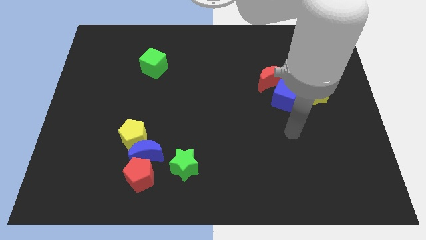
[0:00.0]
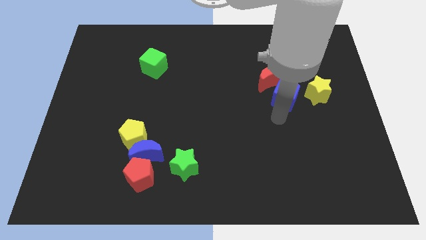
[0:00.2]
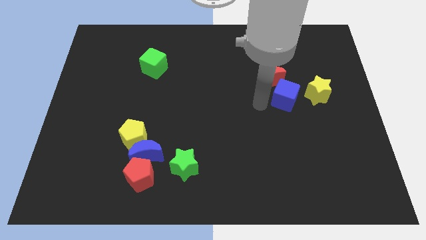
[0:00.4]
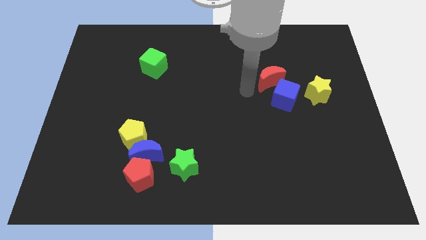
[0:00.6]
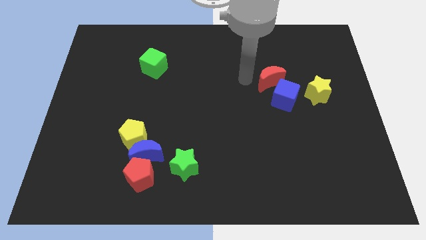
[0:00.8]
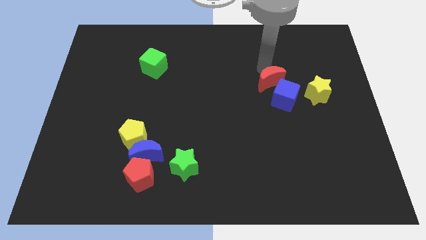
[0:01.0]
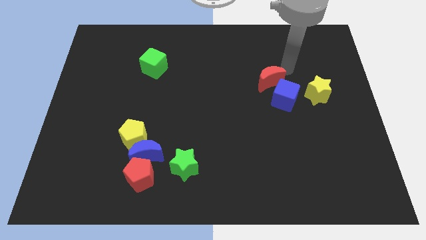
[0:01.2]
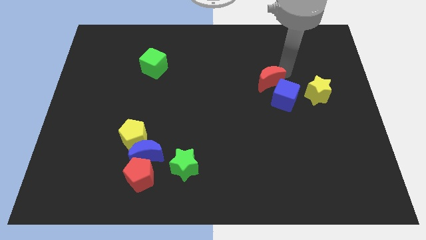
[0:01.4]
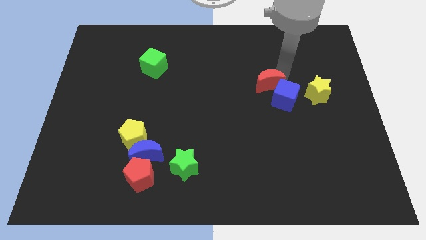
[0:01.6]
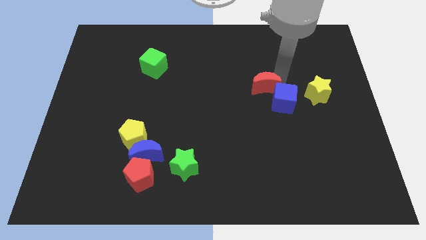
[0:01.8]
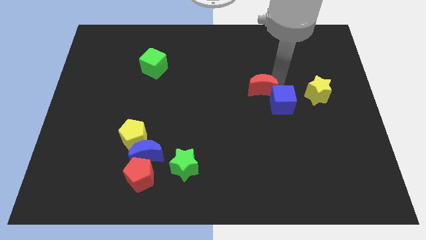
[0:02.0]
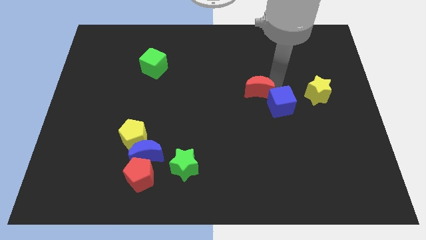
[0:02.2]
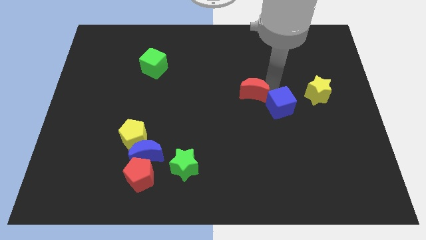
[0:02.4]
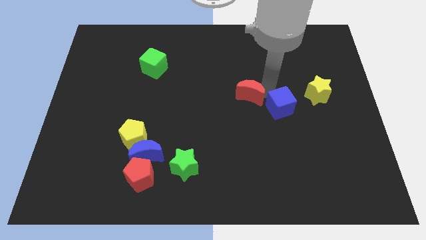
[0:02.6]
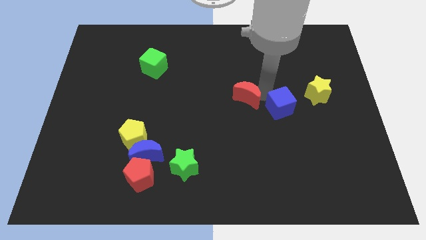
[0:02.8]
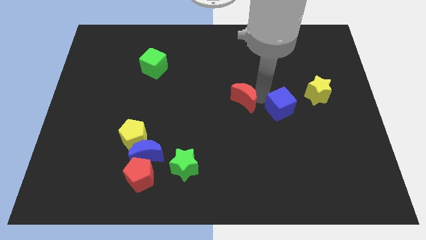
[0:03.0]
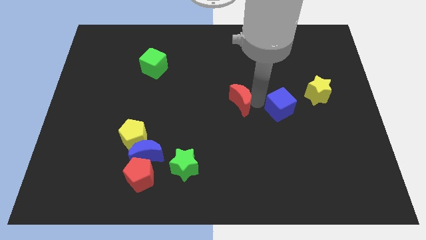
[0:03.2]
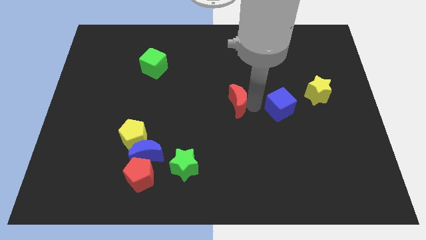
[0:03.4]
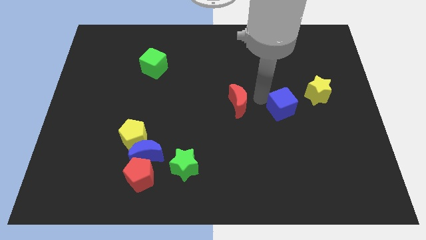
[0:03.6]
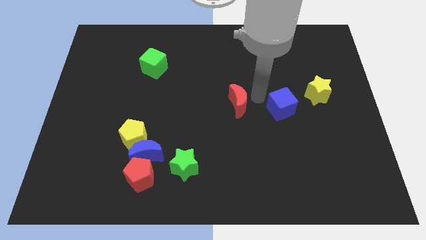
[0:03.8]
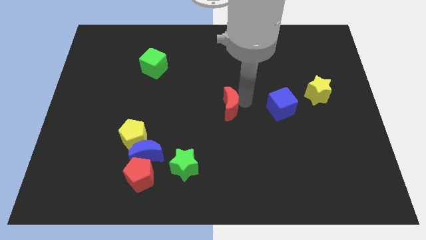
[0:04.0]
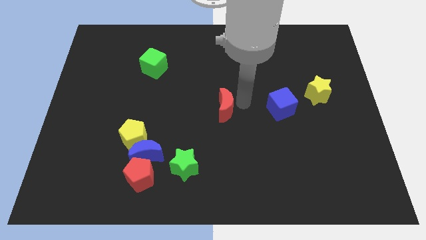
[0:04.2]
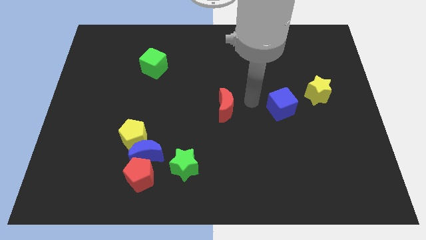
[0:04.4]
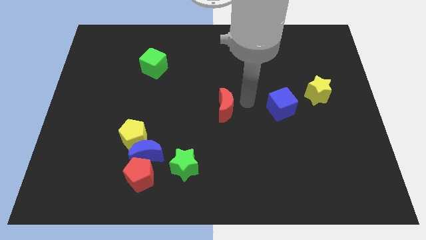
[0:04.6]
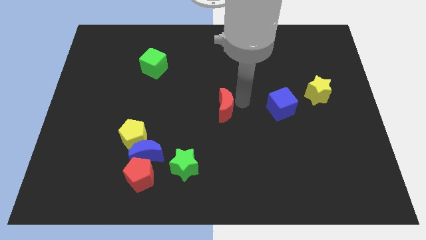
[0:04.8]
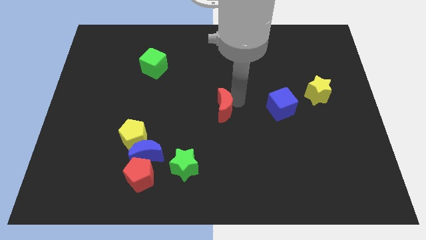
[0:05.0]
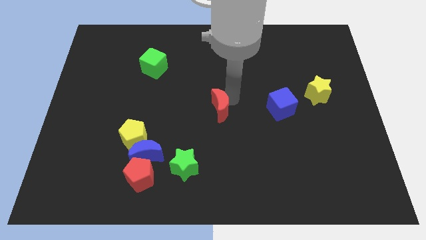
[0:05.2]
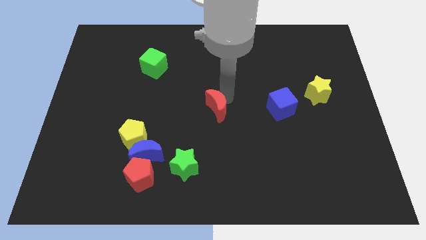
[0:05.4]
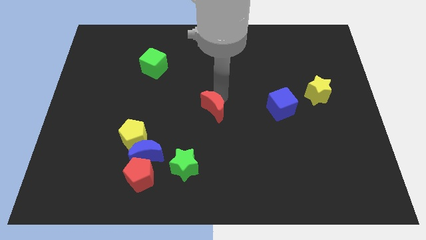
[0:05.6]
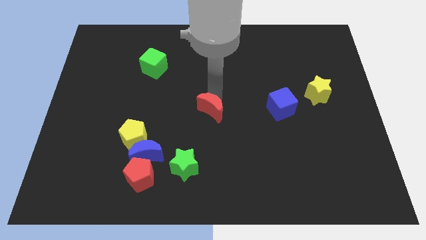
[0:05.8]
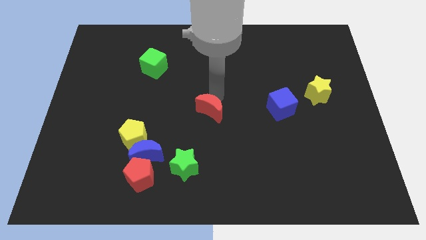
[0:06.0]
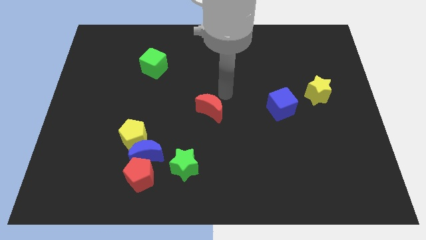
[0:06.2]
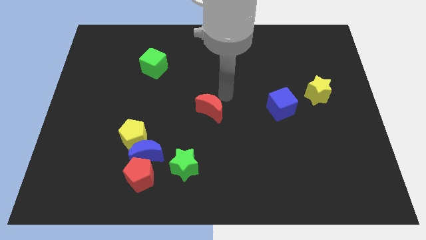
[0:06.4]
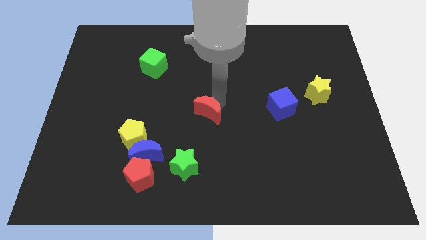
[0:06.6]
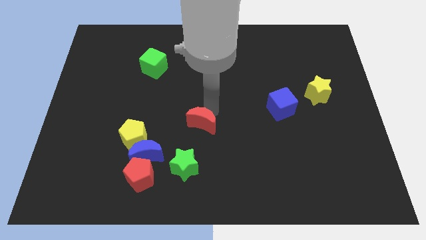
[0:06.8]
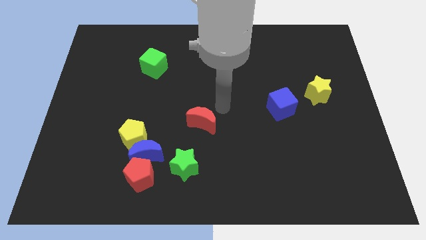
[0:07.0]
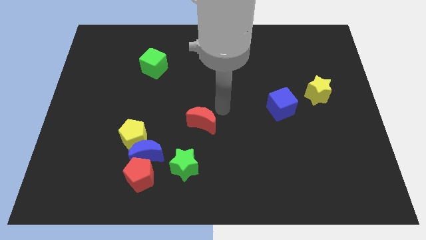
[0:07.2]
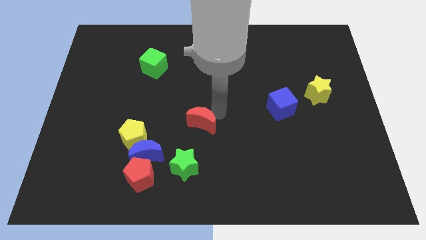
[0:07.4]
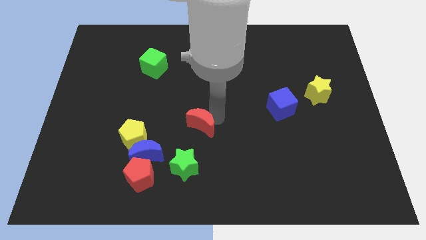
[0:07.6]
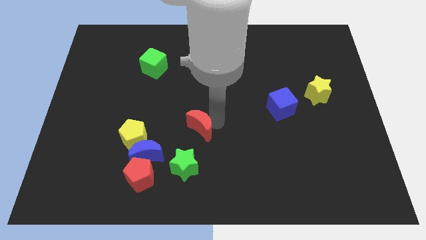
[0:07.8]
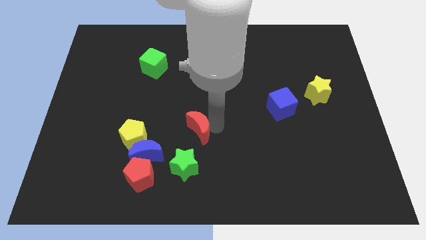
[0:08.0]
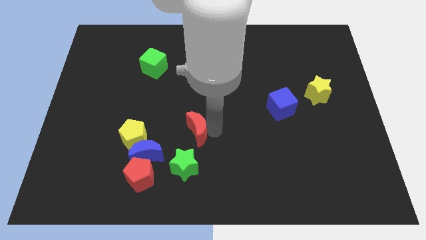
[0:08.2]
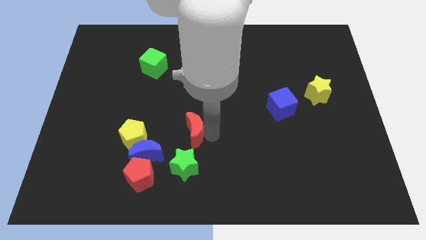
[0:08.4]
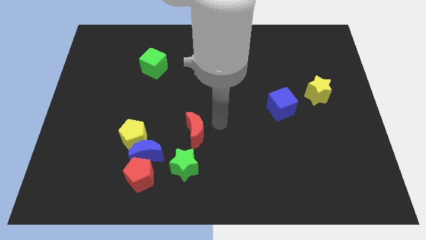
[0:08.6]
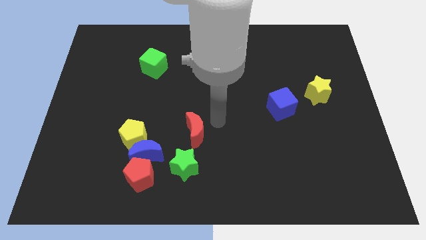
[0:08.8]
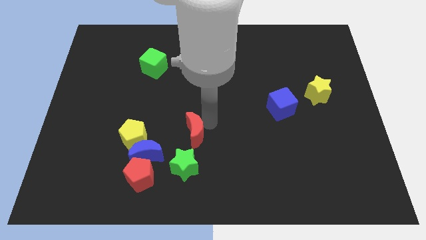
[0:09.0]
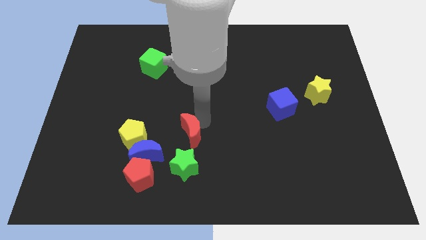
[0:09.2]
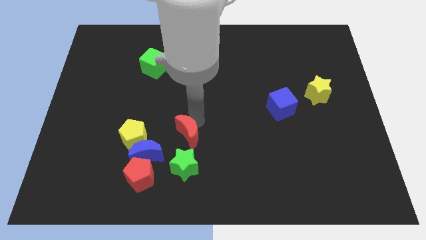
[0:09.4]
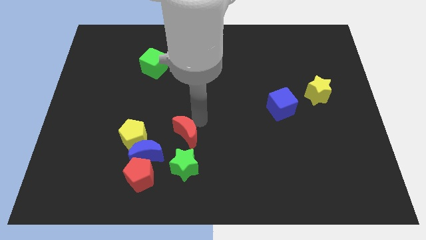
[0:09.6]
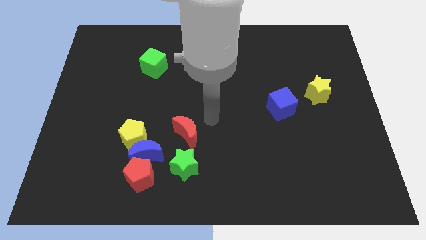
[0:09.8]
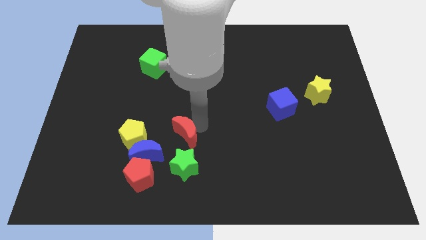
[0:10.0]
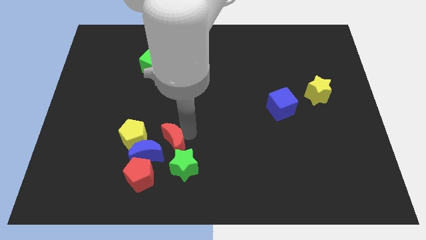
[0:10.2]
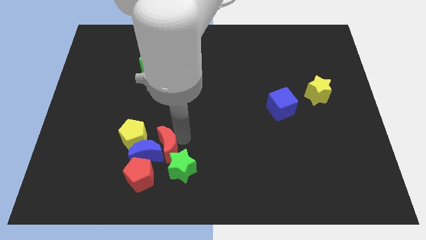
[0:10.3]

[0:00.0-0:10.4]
push the red moon towards the blue moon

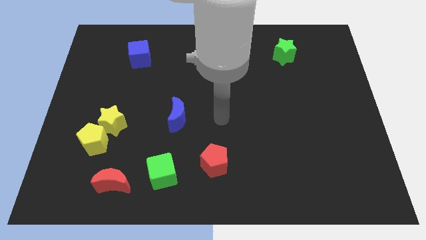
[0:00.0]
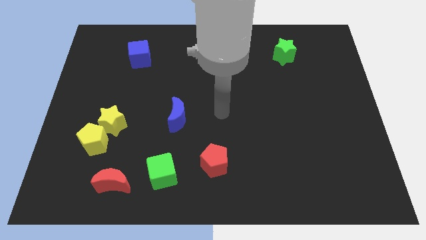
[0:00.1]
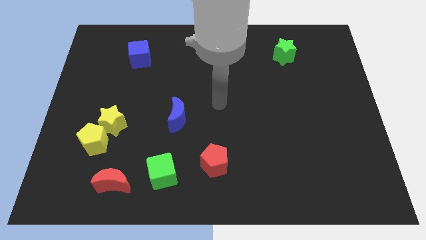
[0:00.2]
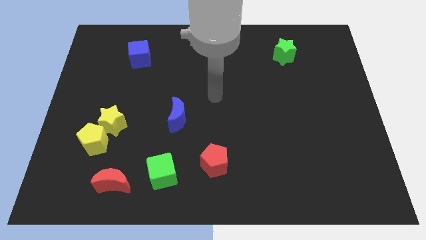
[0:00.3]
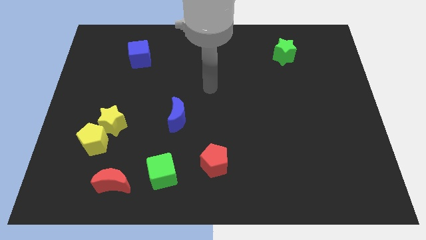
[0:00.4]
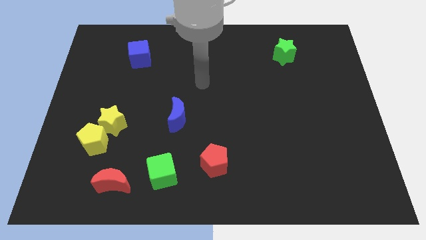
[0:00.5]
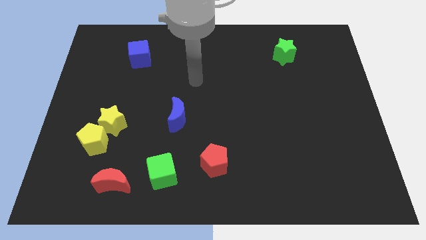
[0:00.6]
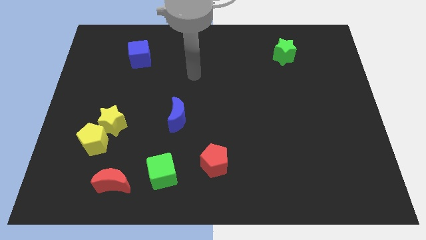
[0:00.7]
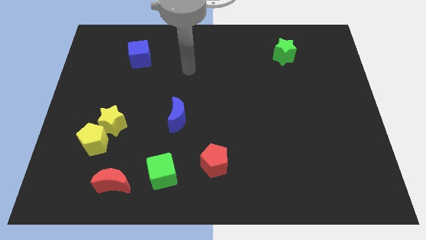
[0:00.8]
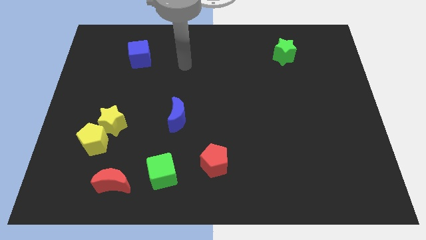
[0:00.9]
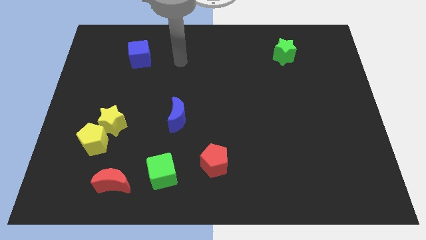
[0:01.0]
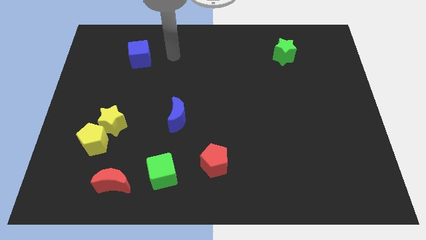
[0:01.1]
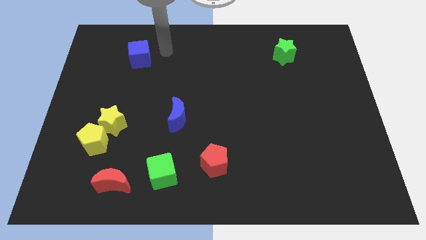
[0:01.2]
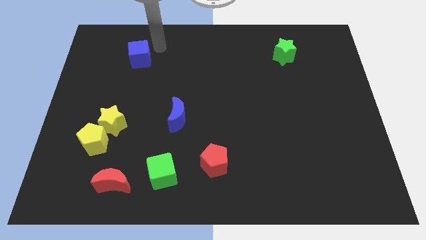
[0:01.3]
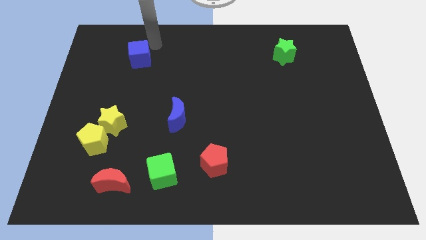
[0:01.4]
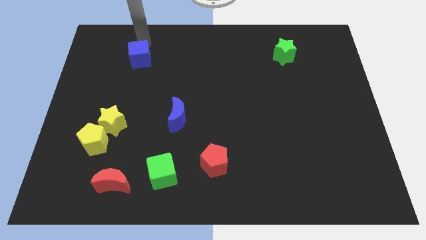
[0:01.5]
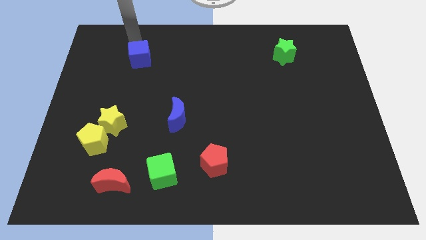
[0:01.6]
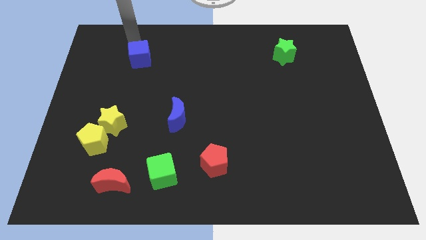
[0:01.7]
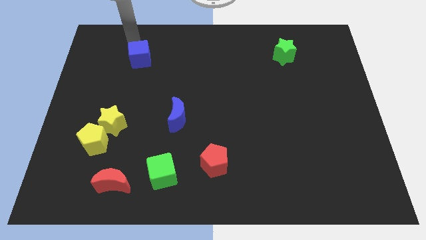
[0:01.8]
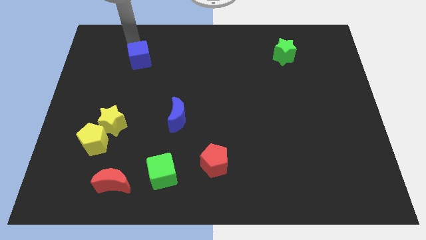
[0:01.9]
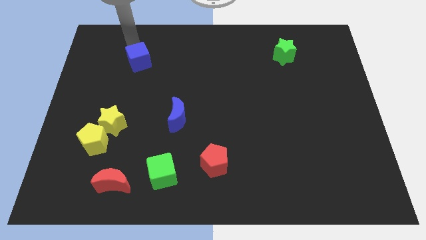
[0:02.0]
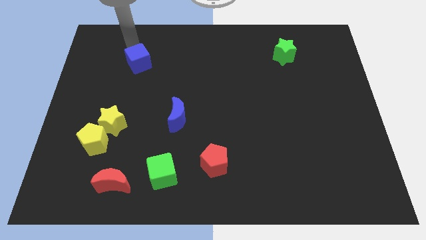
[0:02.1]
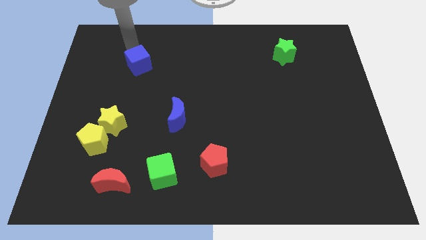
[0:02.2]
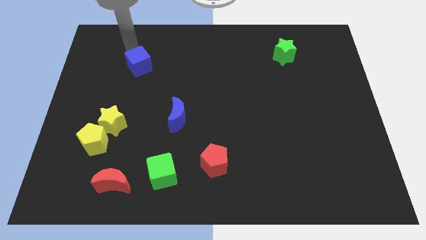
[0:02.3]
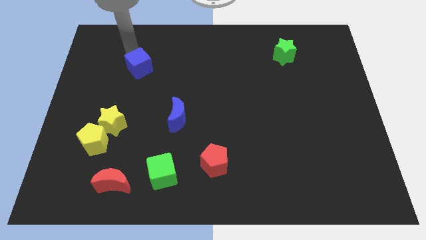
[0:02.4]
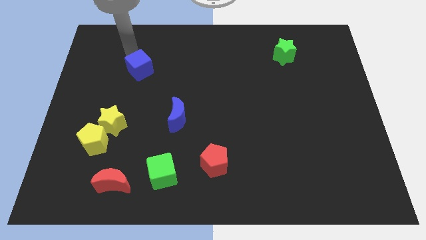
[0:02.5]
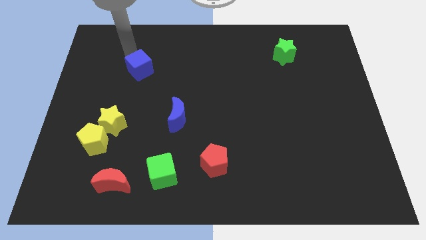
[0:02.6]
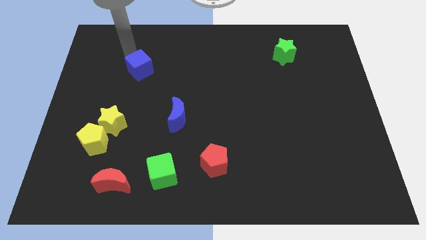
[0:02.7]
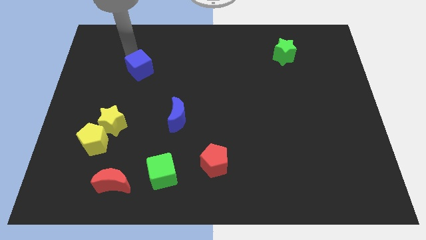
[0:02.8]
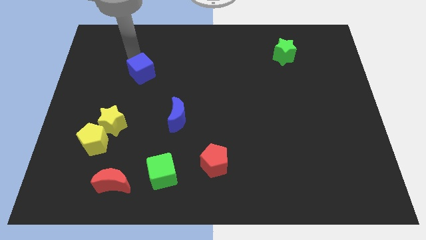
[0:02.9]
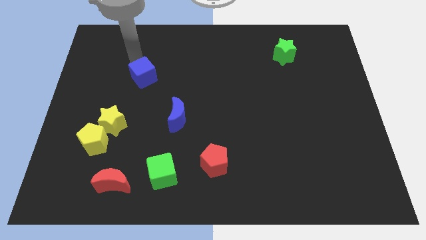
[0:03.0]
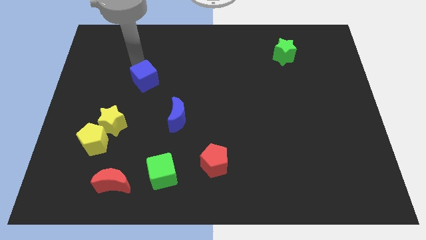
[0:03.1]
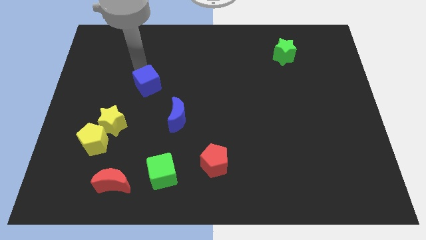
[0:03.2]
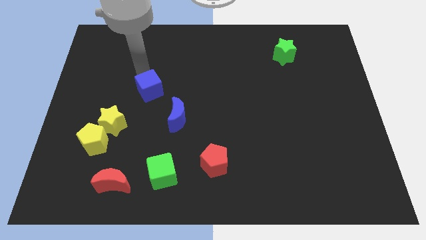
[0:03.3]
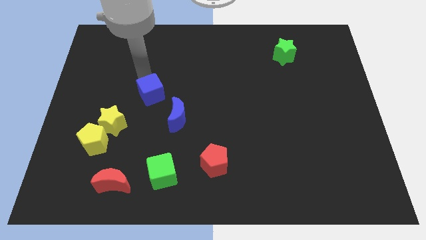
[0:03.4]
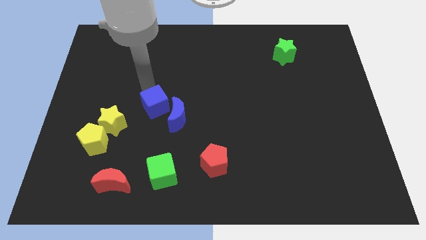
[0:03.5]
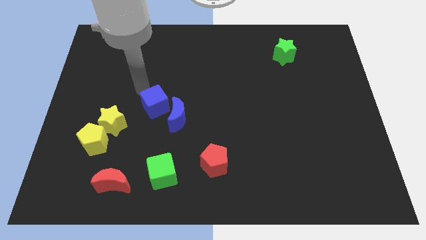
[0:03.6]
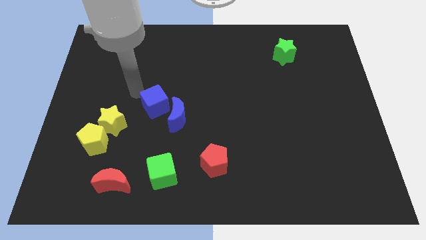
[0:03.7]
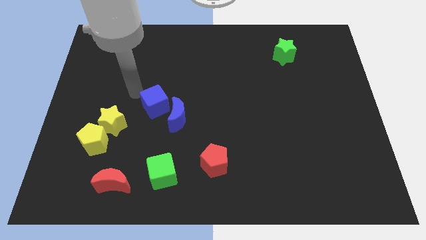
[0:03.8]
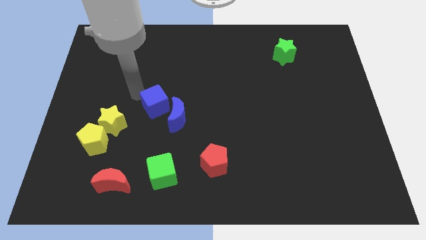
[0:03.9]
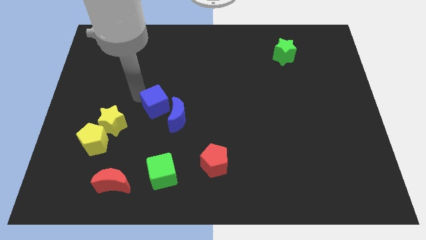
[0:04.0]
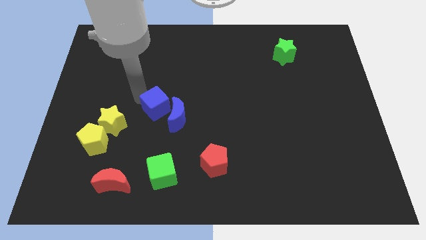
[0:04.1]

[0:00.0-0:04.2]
push the blue cube towards the blue moon
